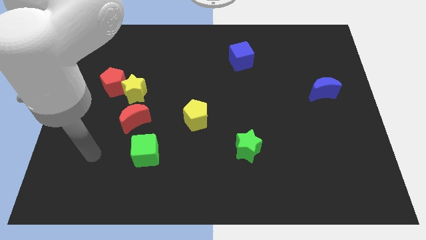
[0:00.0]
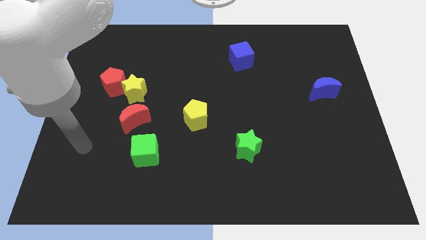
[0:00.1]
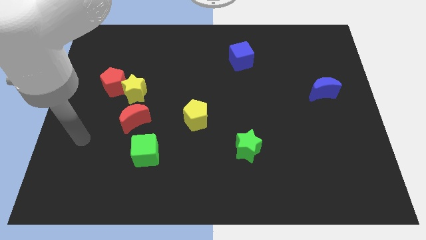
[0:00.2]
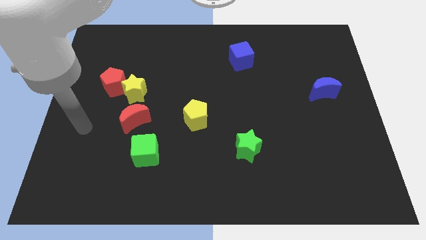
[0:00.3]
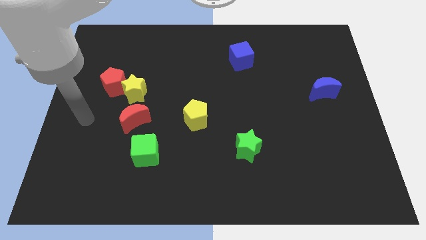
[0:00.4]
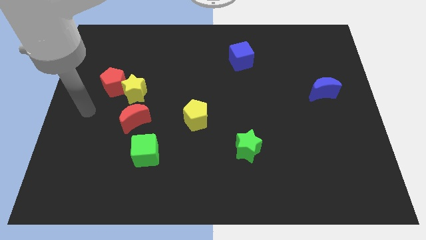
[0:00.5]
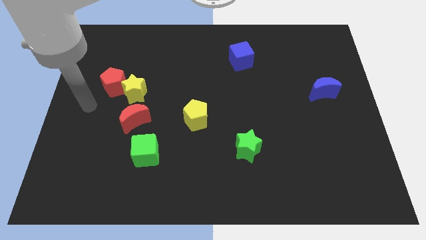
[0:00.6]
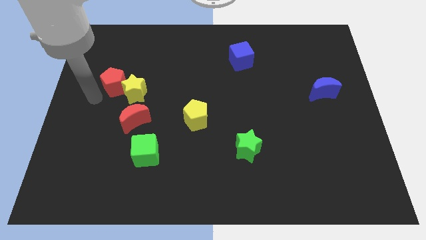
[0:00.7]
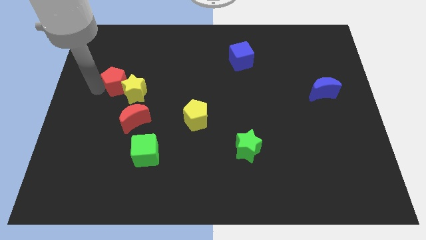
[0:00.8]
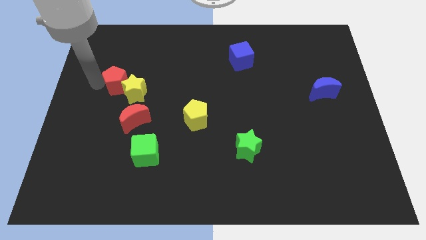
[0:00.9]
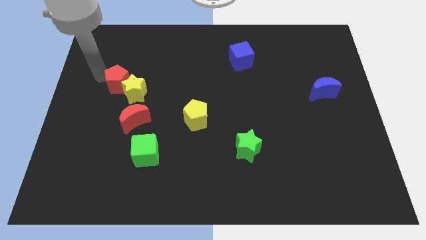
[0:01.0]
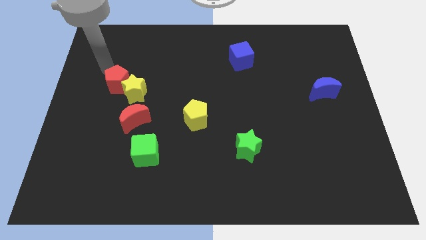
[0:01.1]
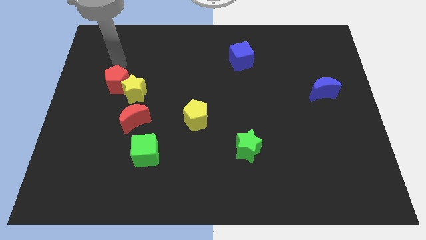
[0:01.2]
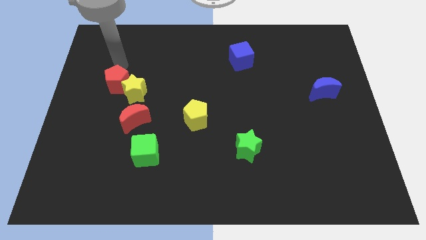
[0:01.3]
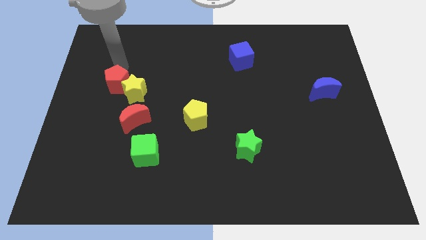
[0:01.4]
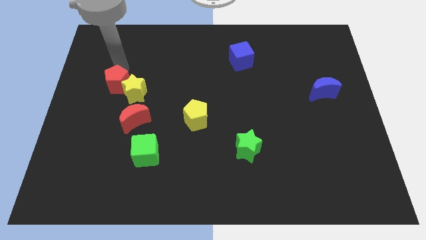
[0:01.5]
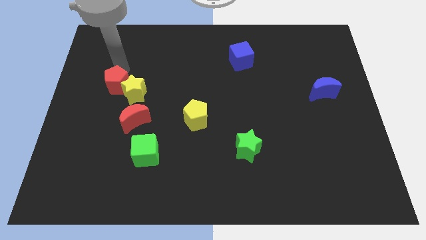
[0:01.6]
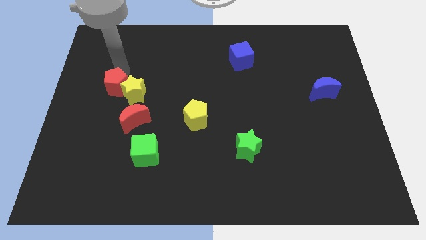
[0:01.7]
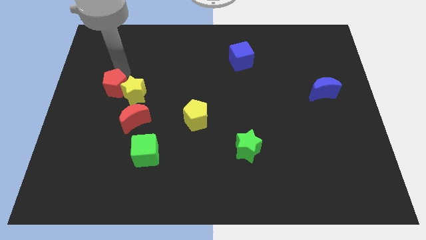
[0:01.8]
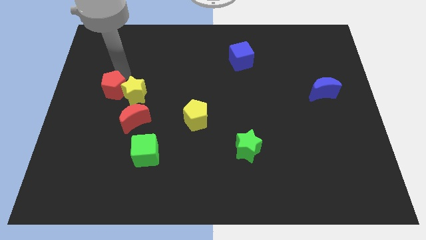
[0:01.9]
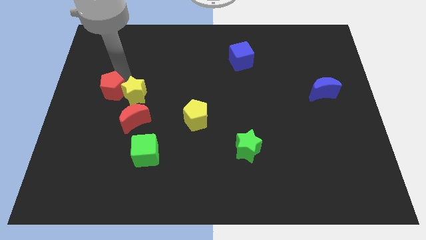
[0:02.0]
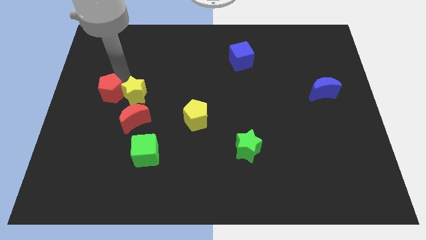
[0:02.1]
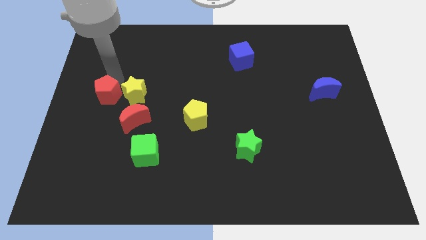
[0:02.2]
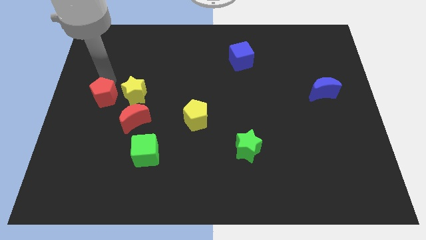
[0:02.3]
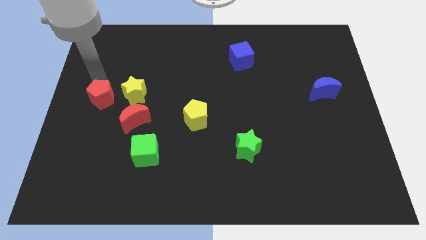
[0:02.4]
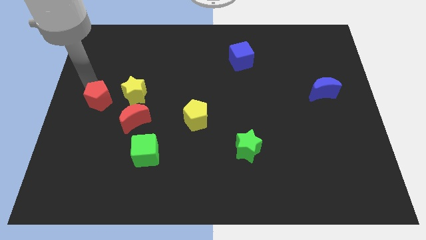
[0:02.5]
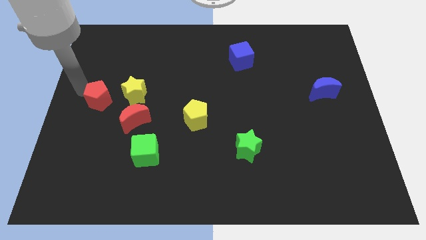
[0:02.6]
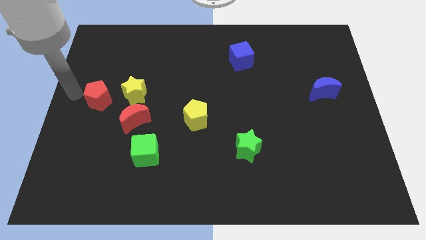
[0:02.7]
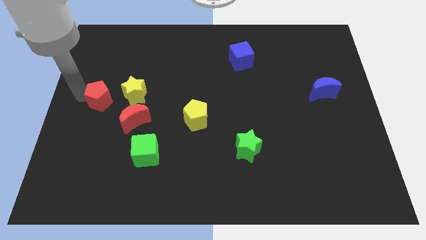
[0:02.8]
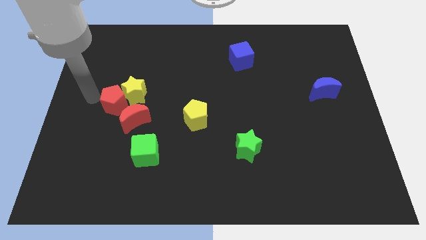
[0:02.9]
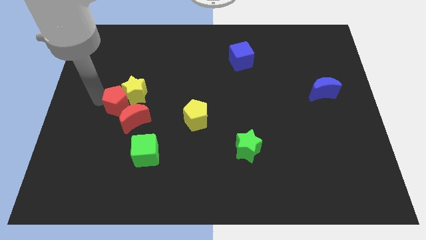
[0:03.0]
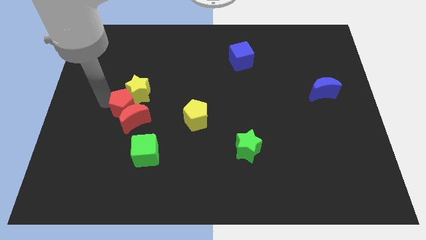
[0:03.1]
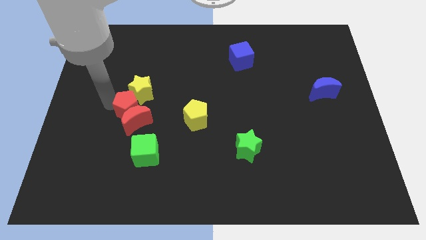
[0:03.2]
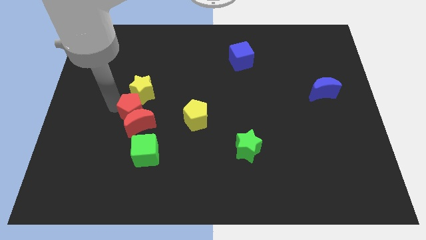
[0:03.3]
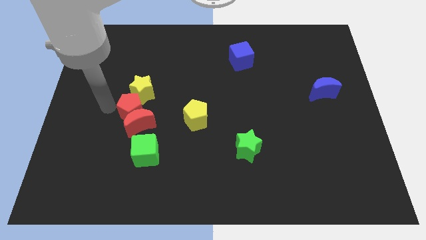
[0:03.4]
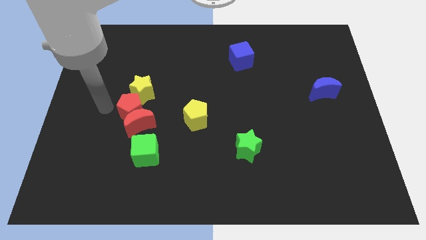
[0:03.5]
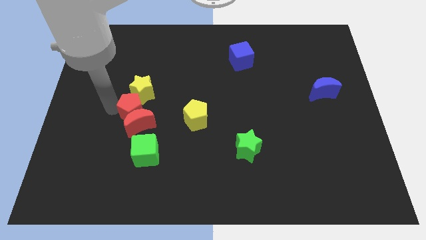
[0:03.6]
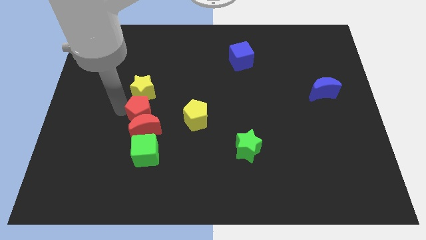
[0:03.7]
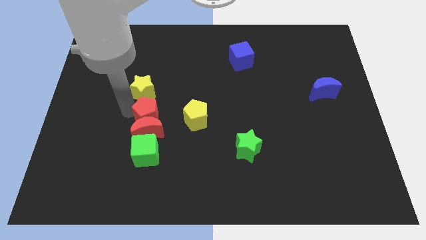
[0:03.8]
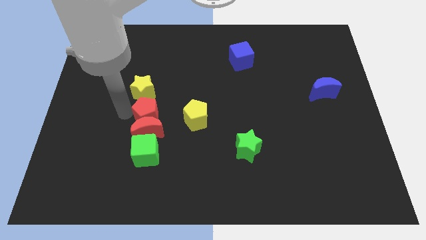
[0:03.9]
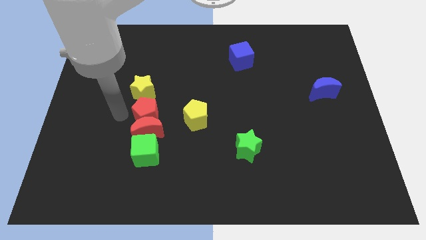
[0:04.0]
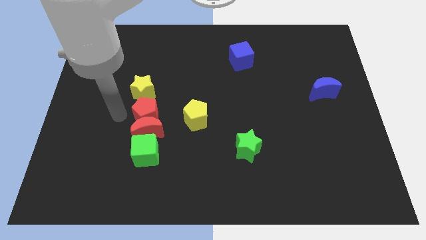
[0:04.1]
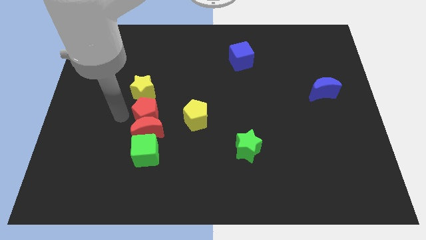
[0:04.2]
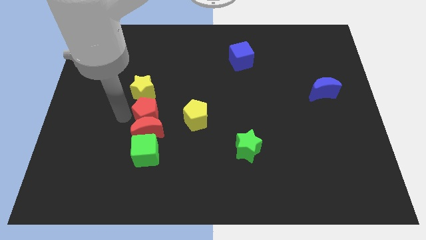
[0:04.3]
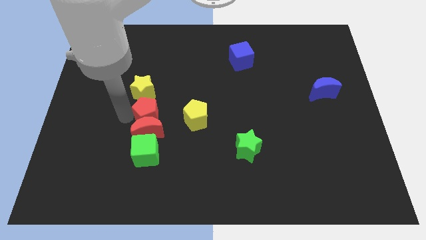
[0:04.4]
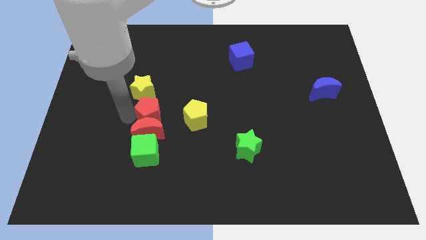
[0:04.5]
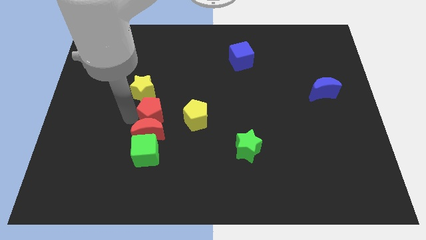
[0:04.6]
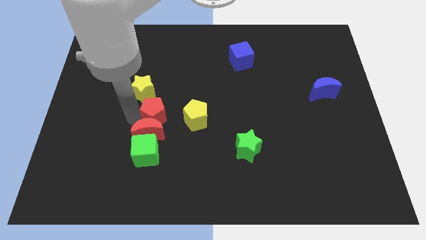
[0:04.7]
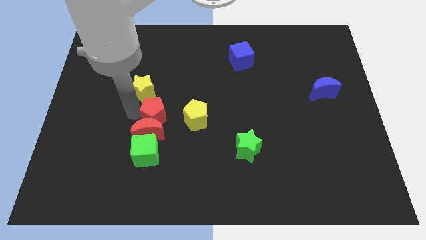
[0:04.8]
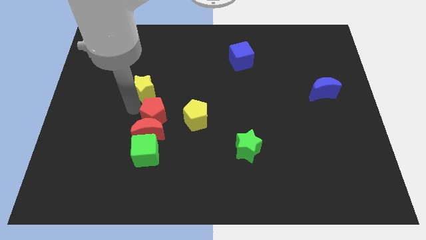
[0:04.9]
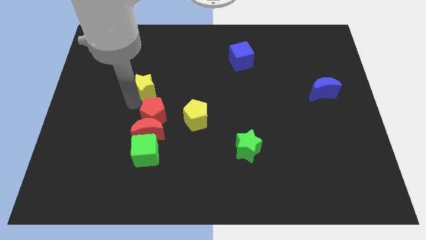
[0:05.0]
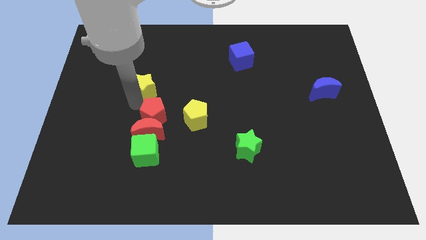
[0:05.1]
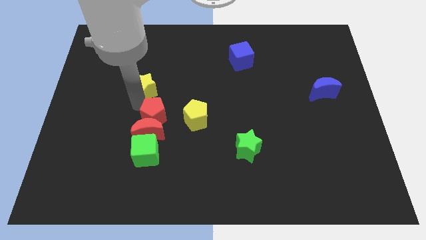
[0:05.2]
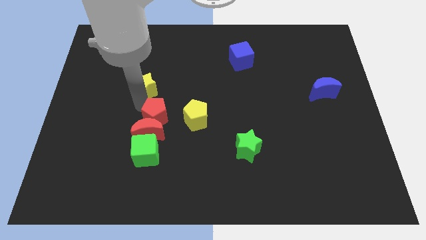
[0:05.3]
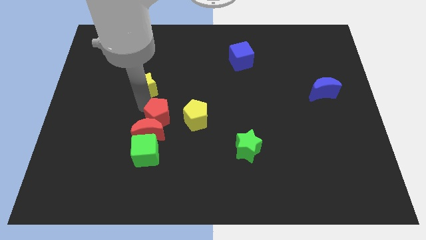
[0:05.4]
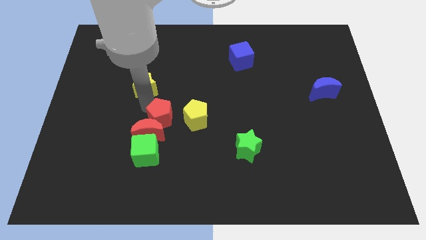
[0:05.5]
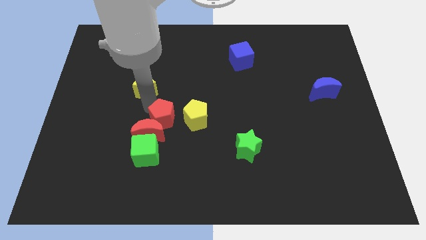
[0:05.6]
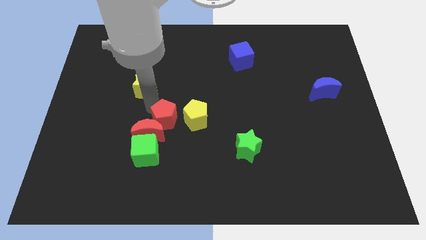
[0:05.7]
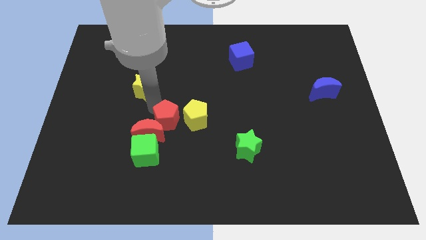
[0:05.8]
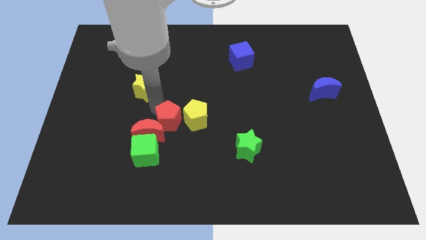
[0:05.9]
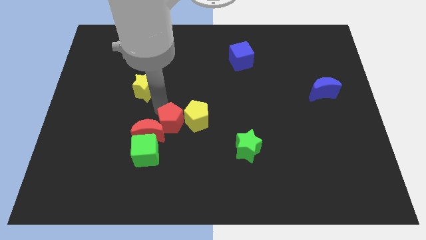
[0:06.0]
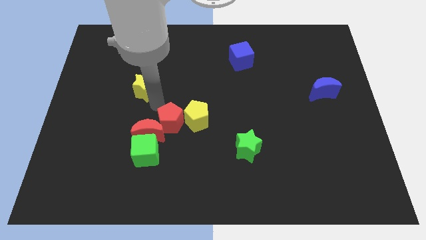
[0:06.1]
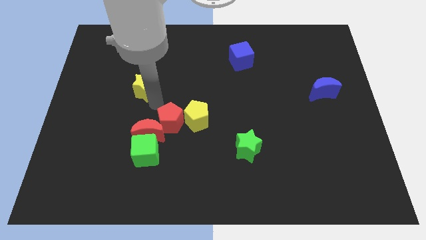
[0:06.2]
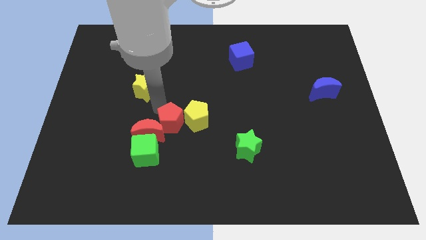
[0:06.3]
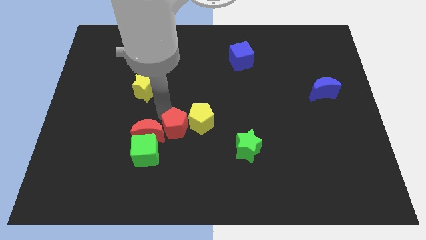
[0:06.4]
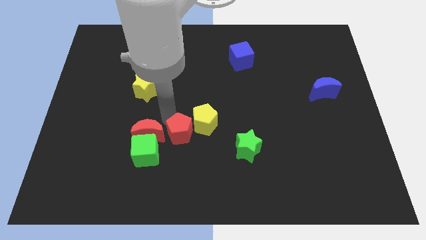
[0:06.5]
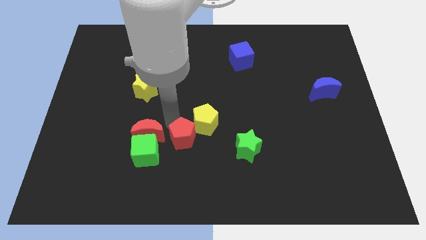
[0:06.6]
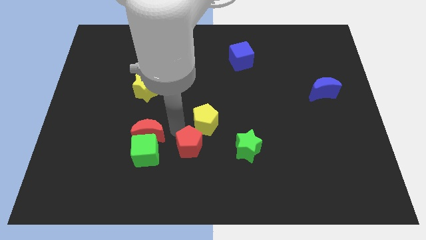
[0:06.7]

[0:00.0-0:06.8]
move the red pentagon to the bottom side of the yellow pentagon

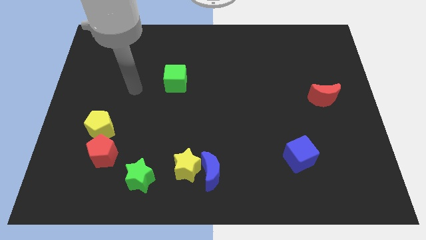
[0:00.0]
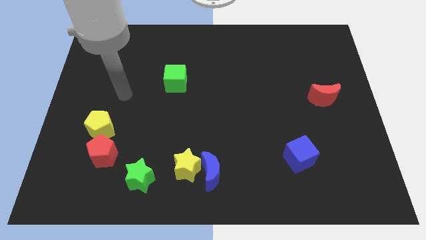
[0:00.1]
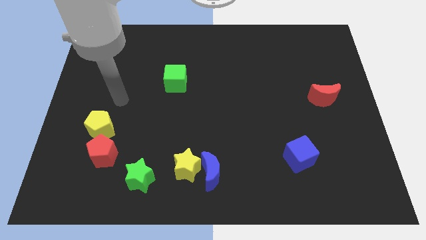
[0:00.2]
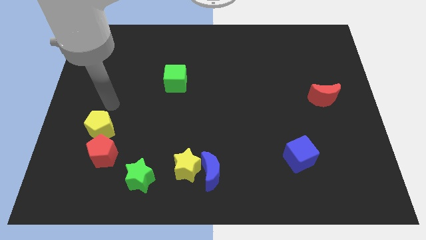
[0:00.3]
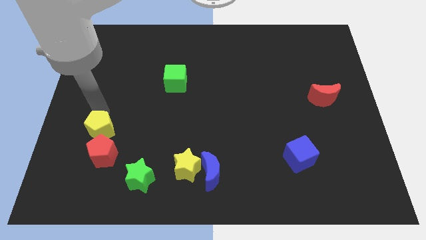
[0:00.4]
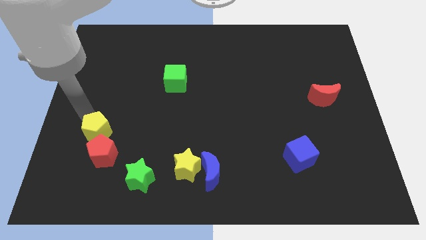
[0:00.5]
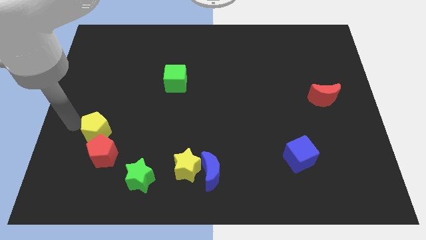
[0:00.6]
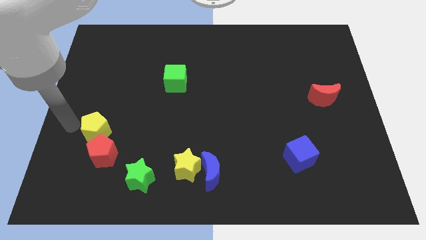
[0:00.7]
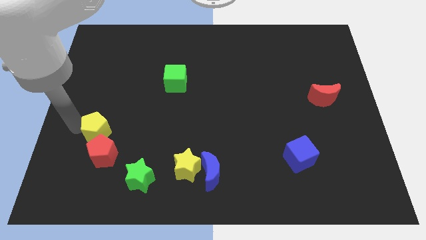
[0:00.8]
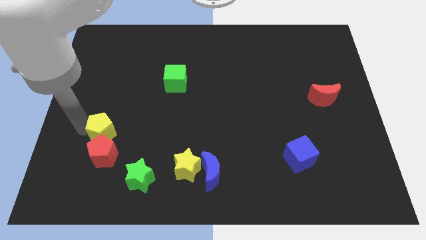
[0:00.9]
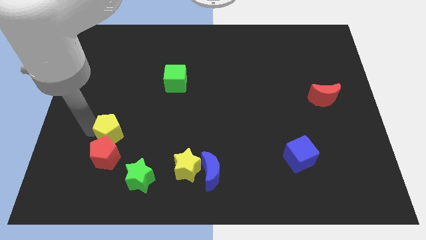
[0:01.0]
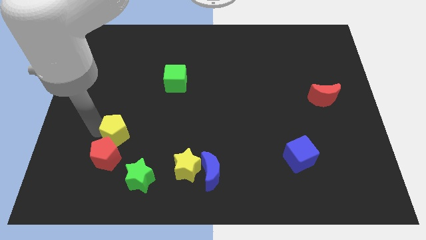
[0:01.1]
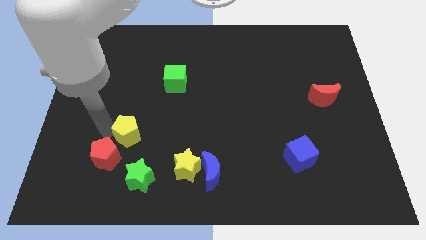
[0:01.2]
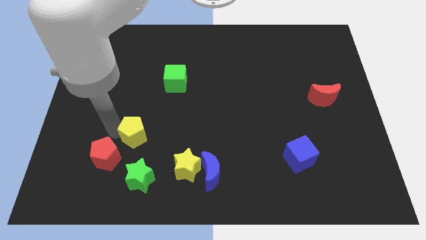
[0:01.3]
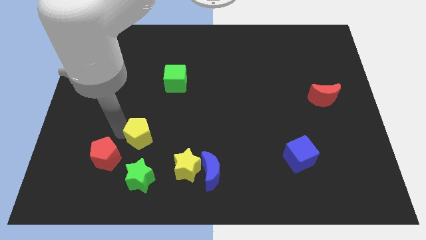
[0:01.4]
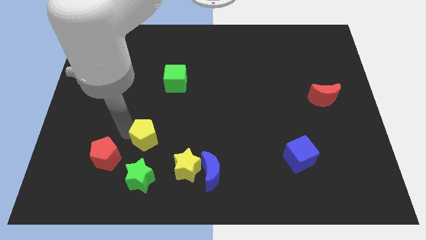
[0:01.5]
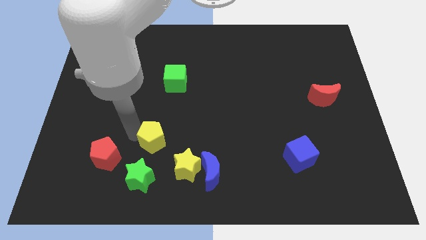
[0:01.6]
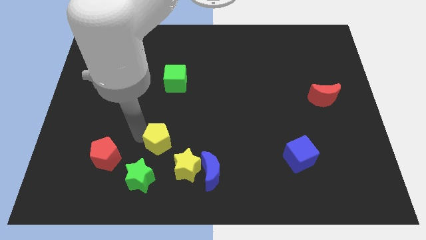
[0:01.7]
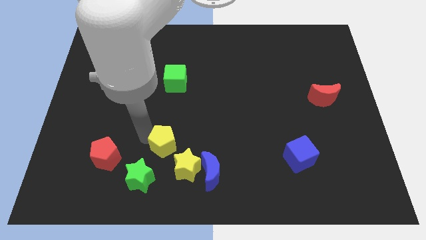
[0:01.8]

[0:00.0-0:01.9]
move the yellow pentagon to the top left of the blue moon
